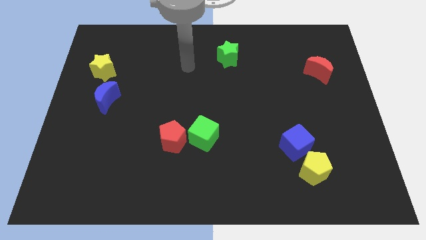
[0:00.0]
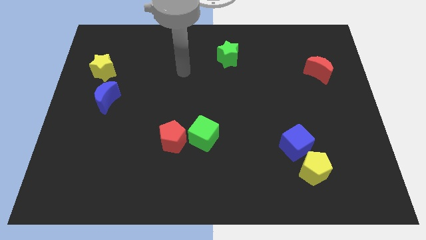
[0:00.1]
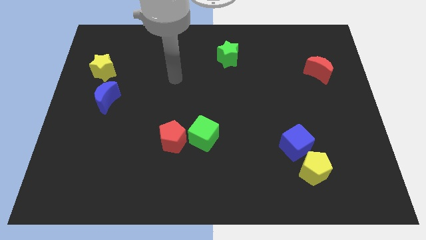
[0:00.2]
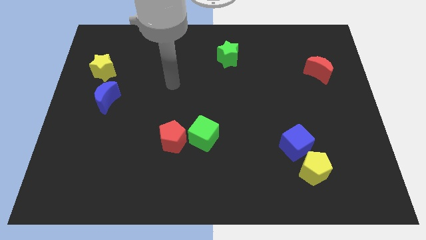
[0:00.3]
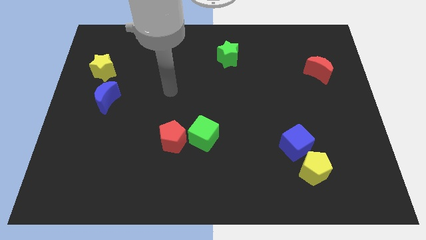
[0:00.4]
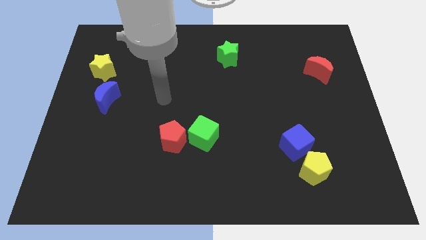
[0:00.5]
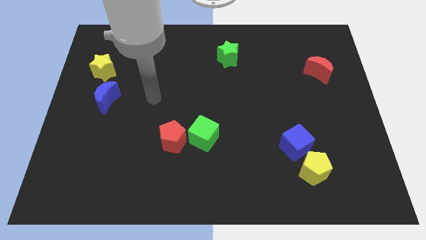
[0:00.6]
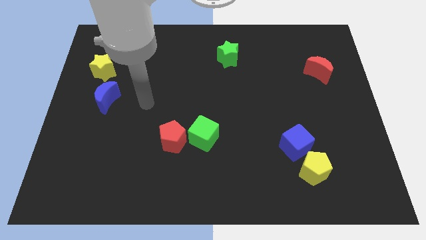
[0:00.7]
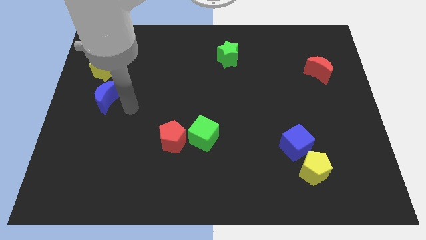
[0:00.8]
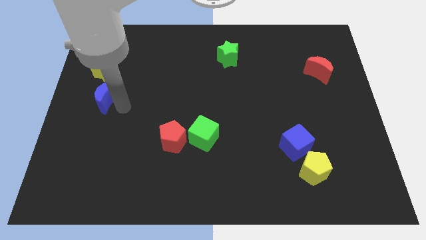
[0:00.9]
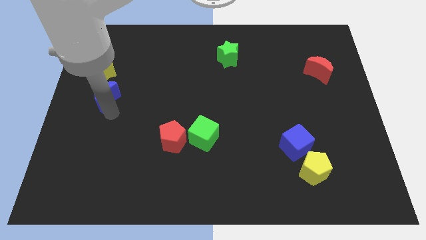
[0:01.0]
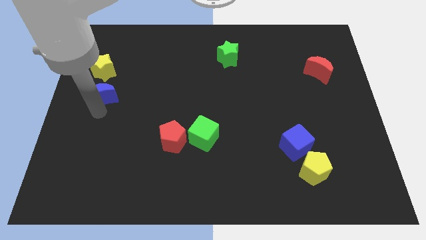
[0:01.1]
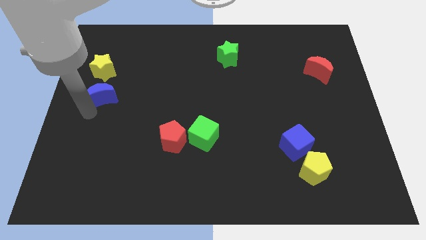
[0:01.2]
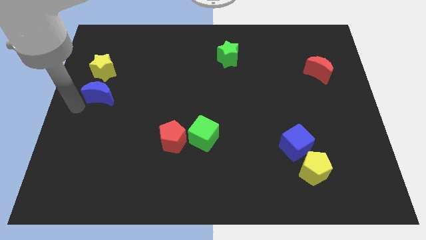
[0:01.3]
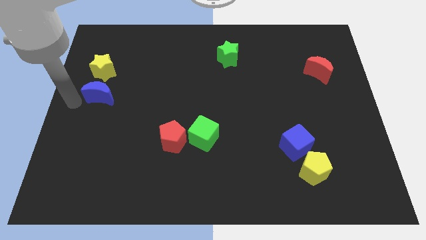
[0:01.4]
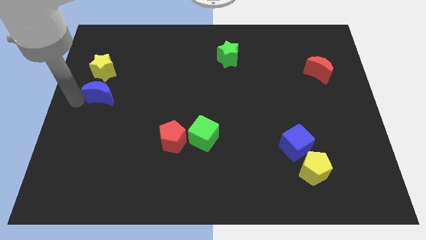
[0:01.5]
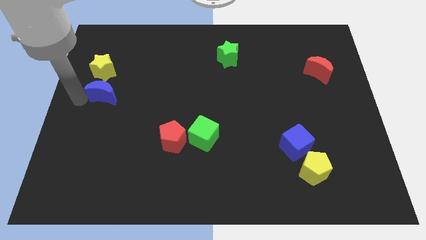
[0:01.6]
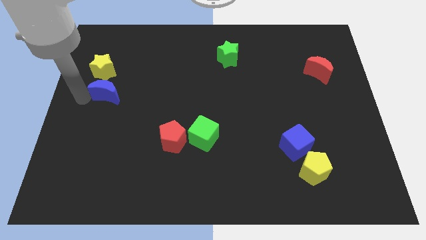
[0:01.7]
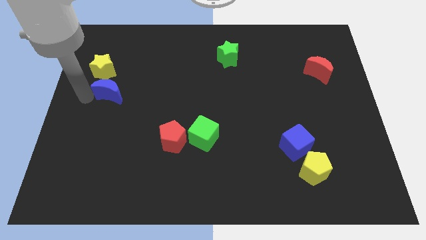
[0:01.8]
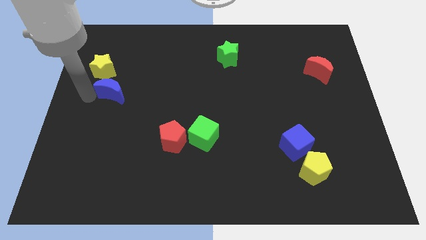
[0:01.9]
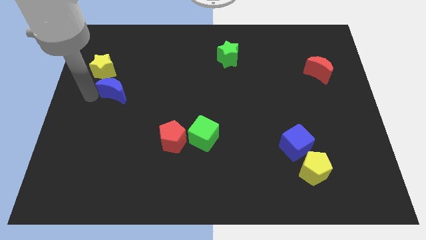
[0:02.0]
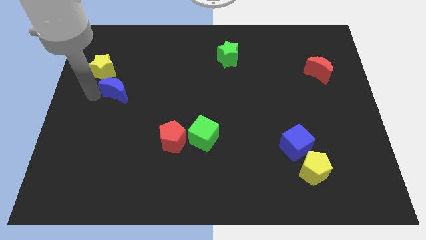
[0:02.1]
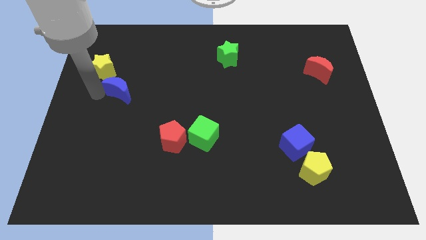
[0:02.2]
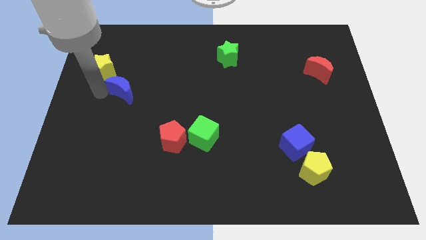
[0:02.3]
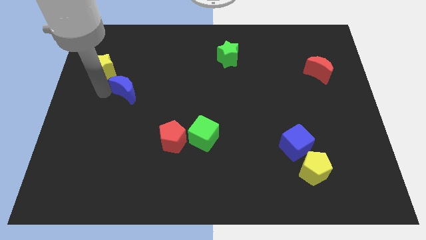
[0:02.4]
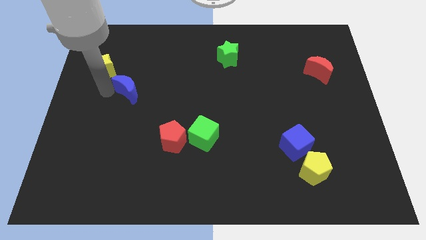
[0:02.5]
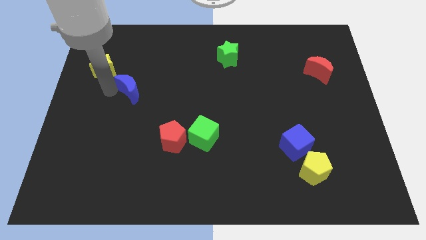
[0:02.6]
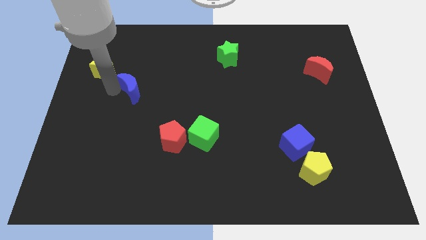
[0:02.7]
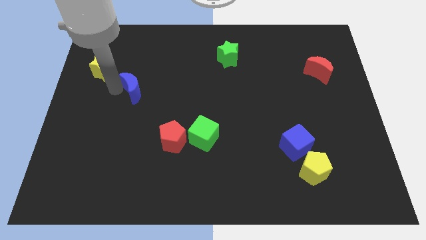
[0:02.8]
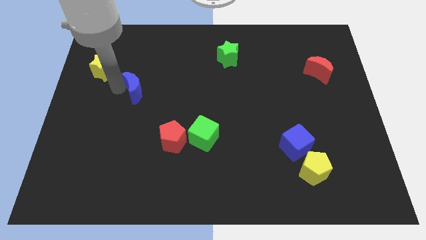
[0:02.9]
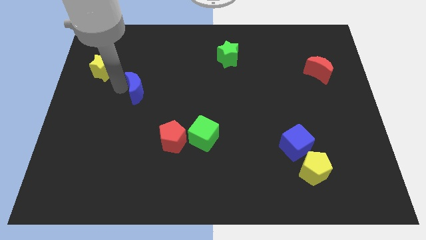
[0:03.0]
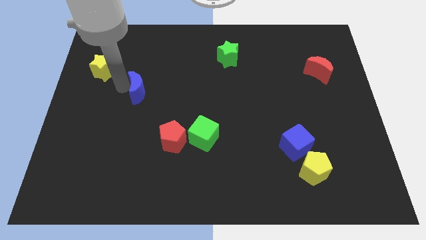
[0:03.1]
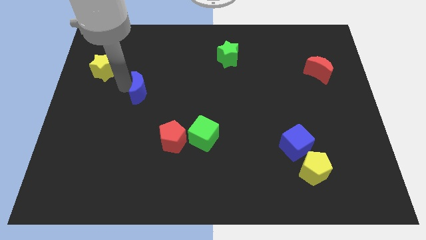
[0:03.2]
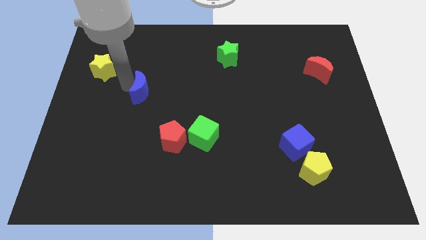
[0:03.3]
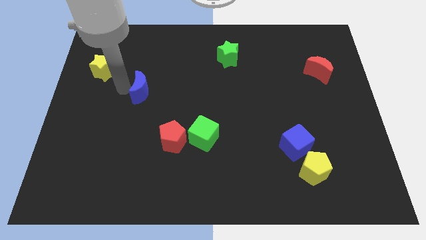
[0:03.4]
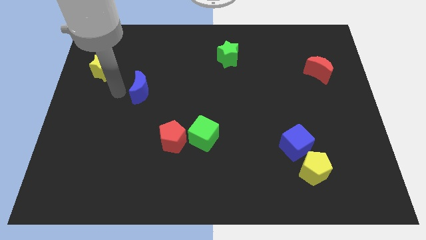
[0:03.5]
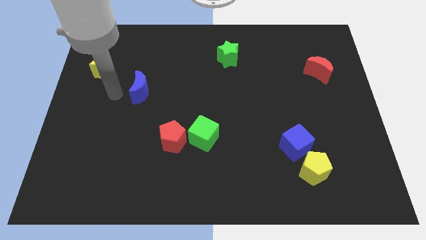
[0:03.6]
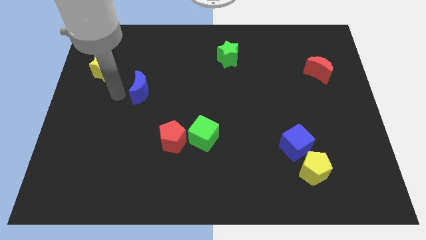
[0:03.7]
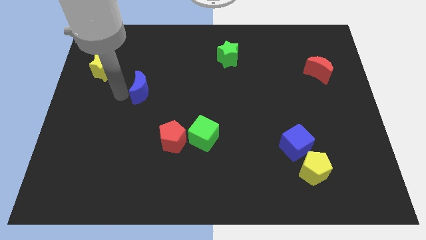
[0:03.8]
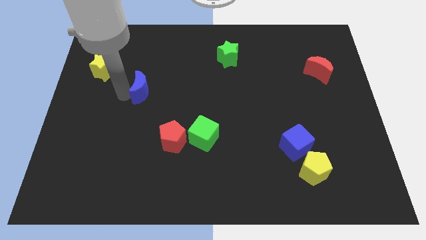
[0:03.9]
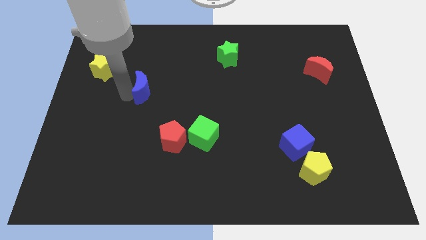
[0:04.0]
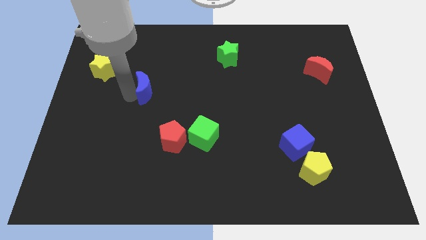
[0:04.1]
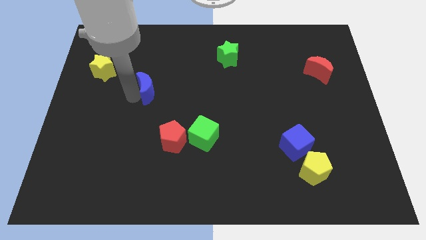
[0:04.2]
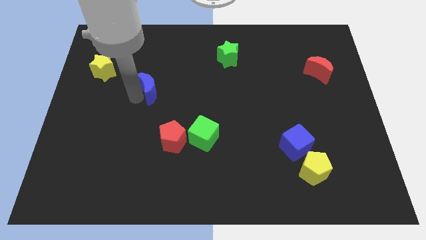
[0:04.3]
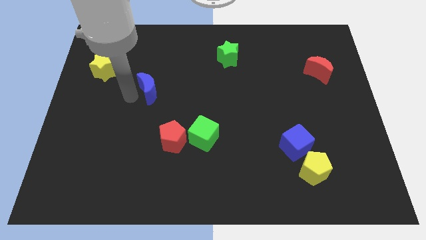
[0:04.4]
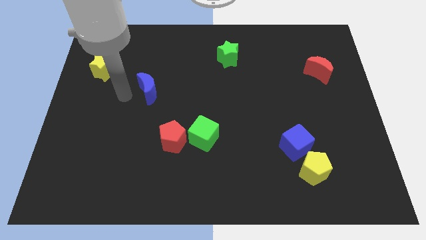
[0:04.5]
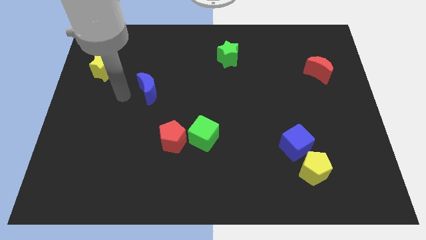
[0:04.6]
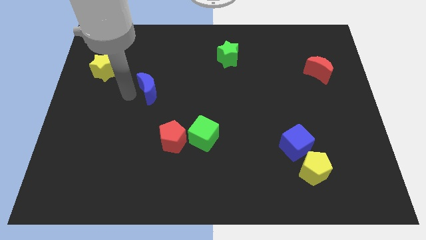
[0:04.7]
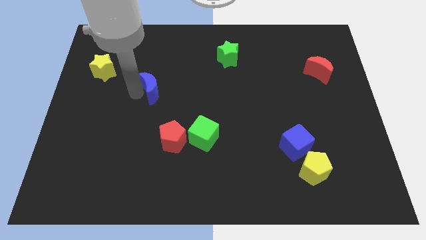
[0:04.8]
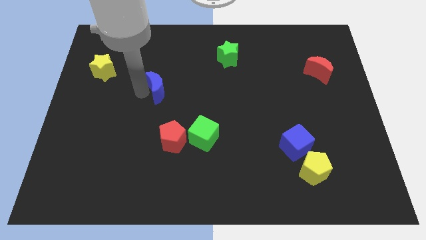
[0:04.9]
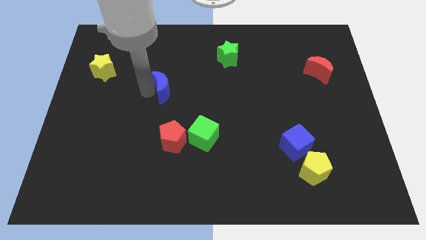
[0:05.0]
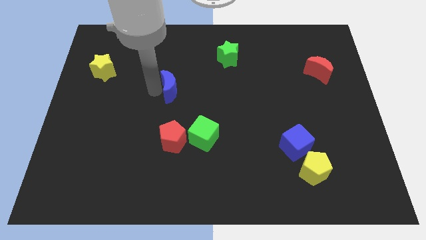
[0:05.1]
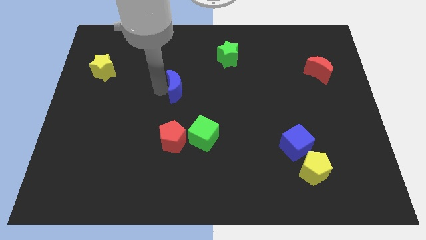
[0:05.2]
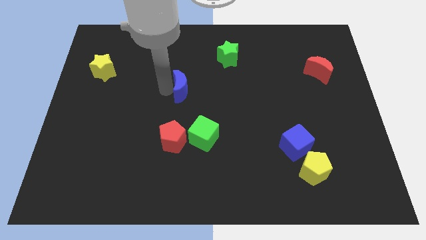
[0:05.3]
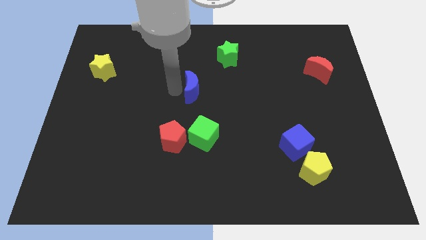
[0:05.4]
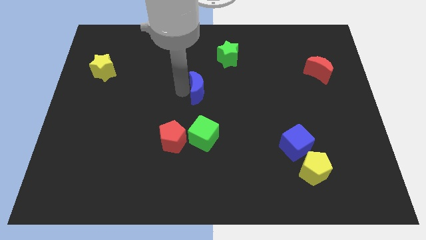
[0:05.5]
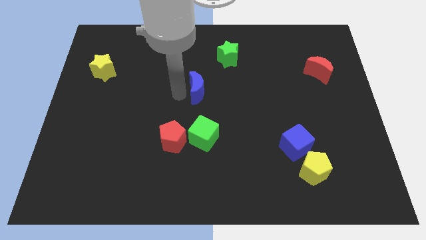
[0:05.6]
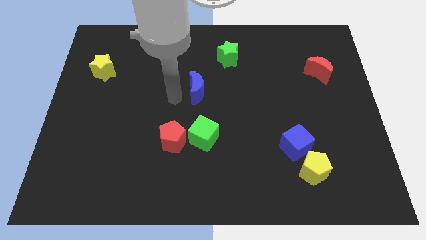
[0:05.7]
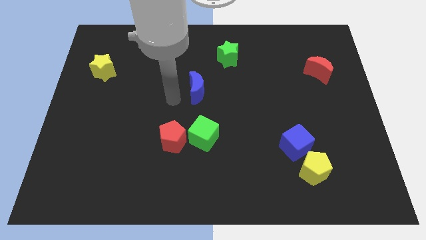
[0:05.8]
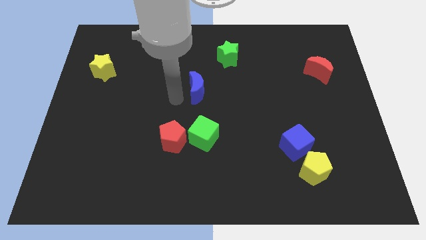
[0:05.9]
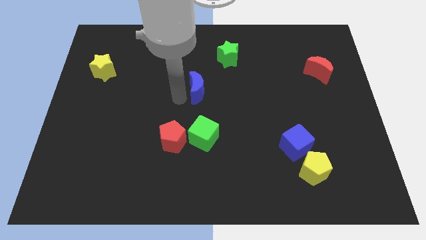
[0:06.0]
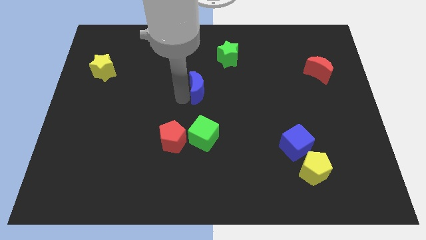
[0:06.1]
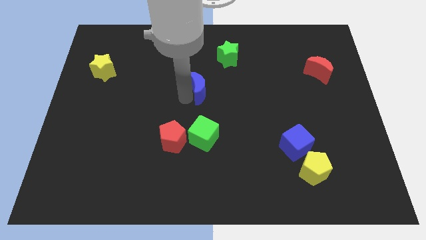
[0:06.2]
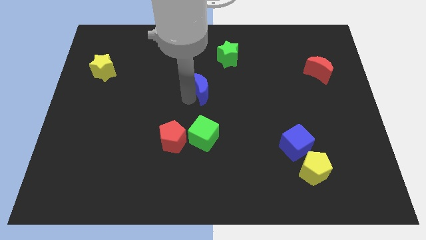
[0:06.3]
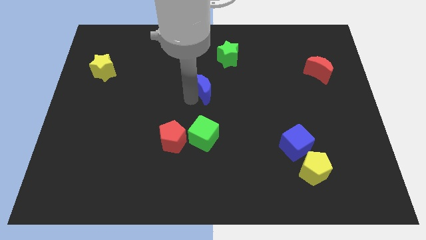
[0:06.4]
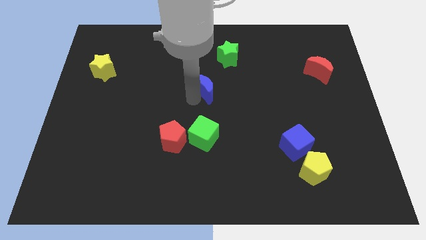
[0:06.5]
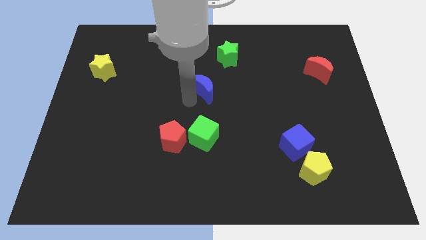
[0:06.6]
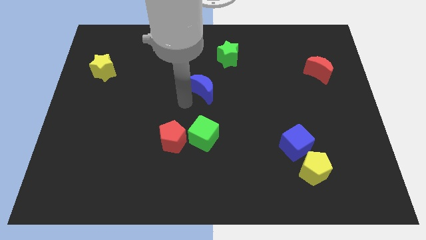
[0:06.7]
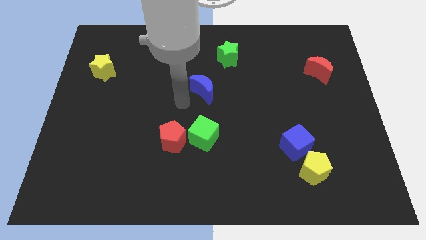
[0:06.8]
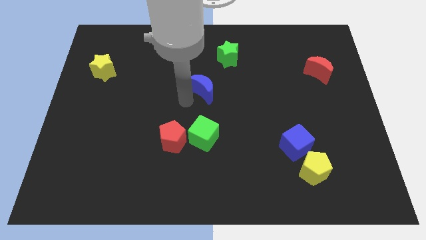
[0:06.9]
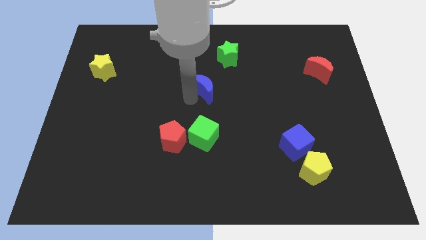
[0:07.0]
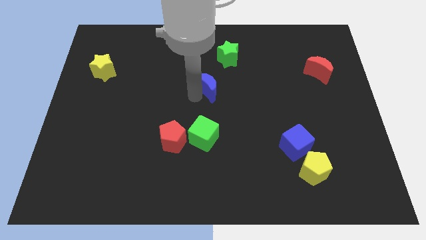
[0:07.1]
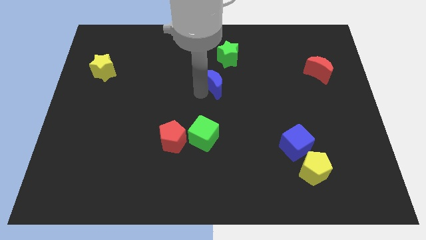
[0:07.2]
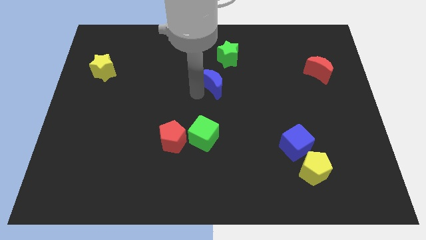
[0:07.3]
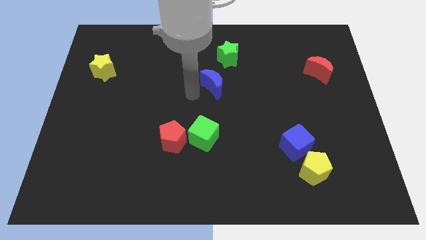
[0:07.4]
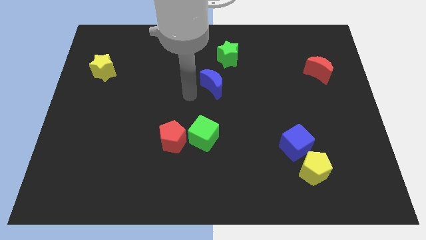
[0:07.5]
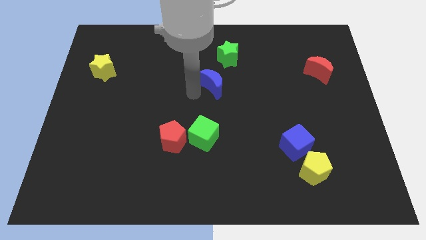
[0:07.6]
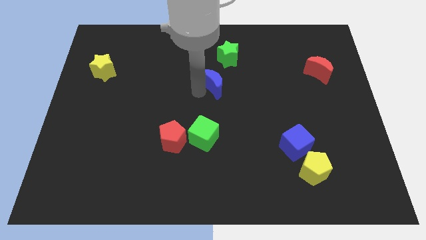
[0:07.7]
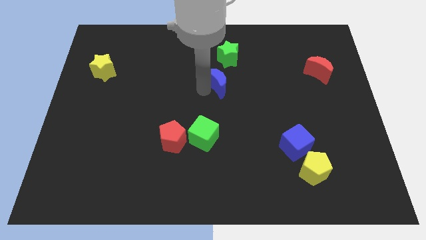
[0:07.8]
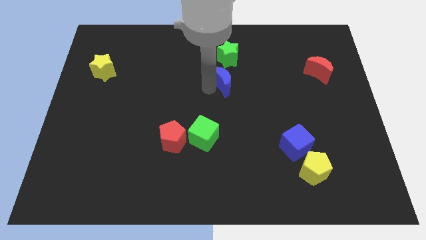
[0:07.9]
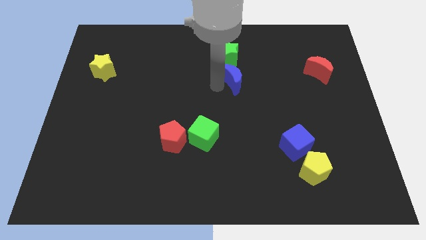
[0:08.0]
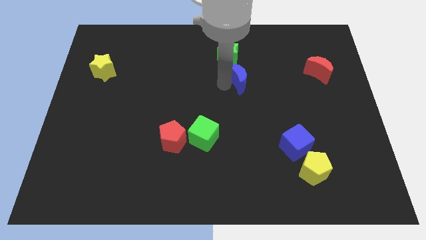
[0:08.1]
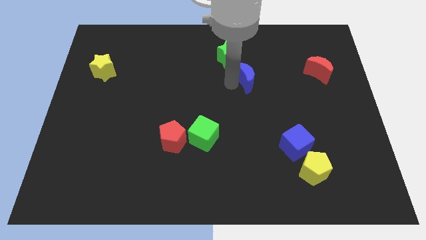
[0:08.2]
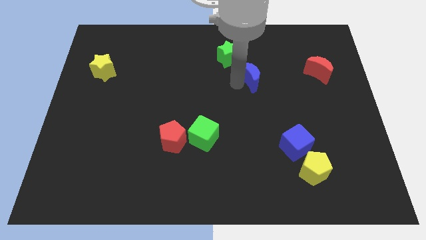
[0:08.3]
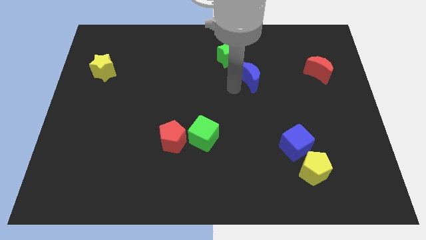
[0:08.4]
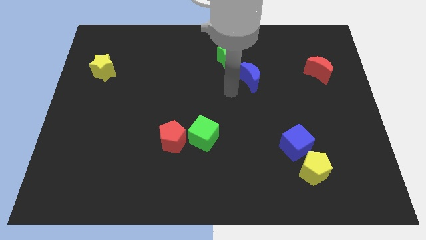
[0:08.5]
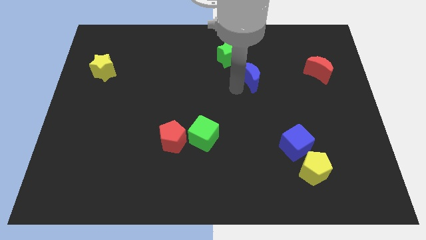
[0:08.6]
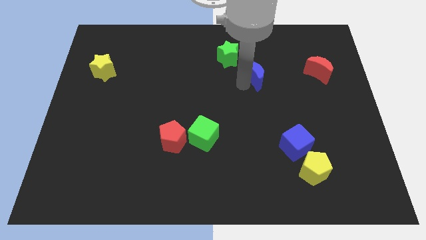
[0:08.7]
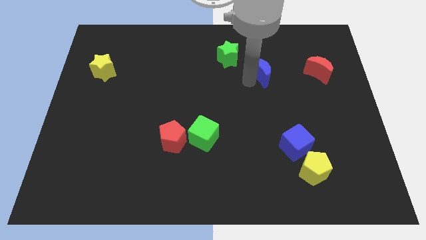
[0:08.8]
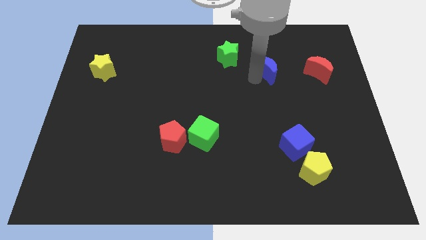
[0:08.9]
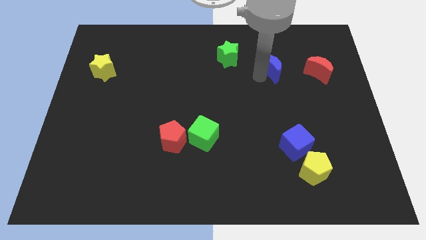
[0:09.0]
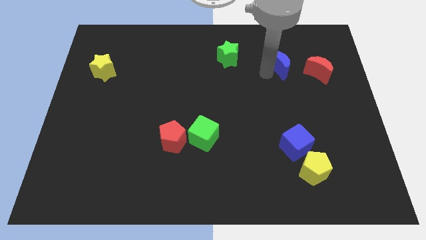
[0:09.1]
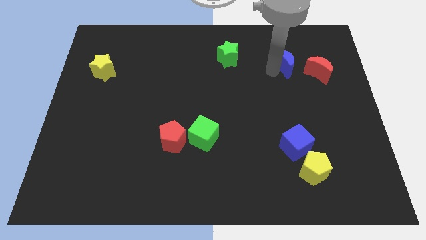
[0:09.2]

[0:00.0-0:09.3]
slide the blue moon to the top left of the red moon
